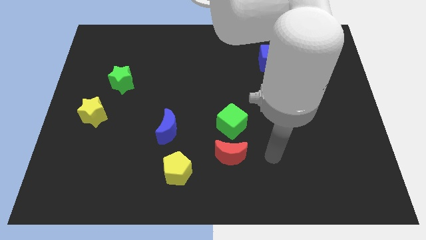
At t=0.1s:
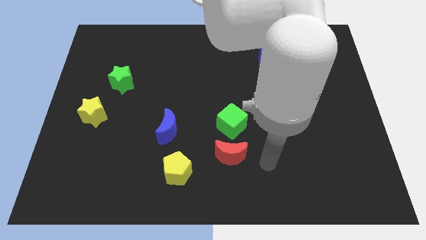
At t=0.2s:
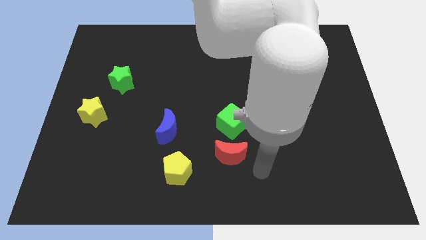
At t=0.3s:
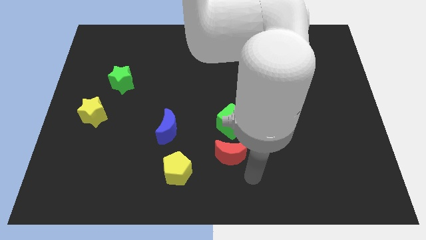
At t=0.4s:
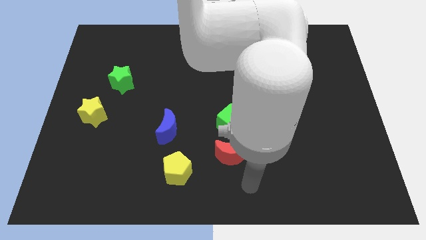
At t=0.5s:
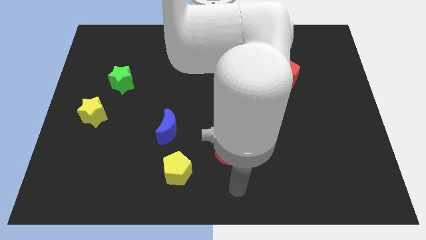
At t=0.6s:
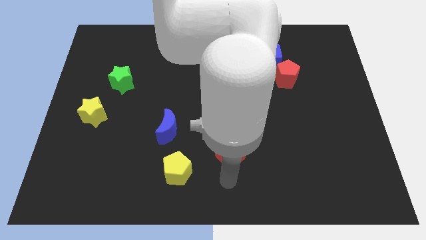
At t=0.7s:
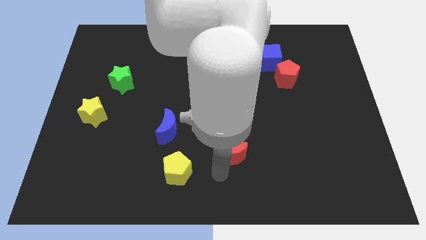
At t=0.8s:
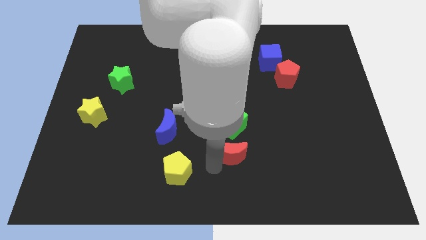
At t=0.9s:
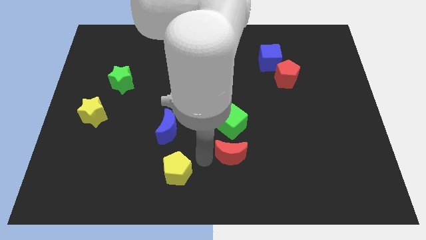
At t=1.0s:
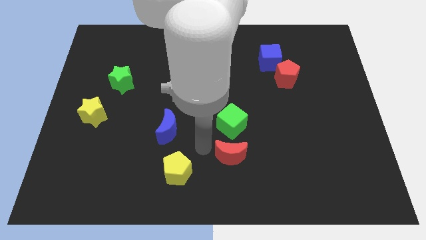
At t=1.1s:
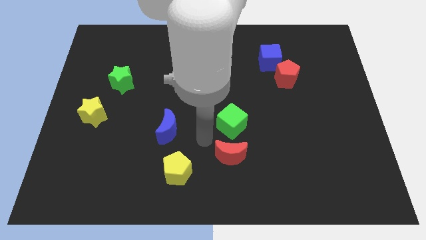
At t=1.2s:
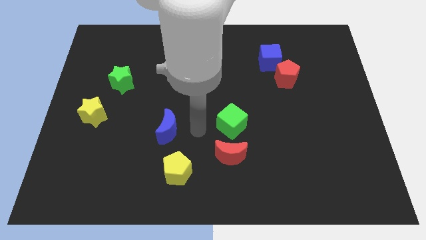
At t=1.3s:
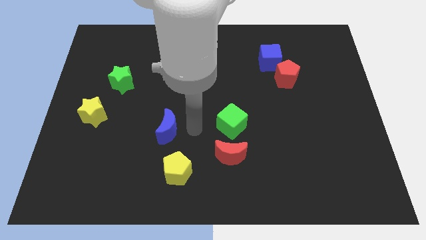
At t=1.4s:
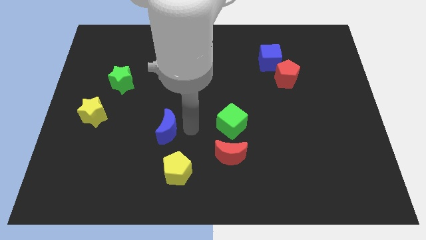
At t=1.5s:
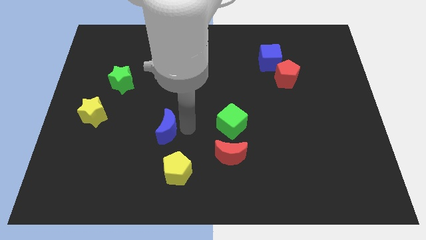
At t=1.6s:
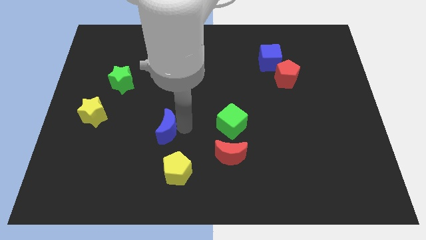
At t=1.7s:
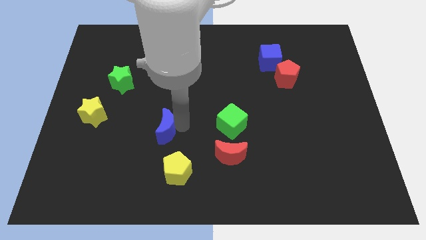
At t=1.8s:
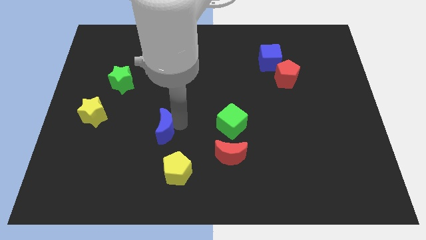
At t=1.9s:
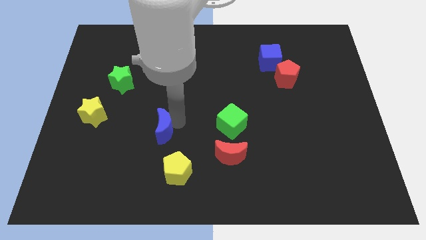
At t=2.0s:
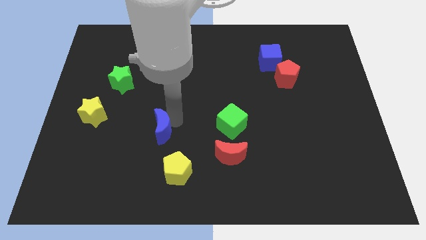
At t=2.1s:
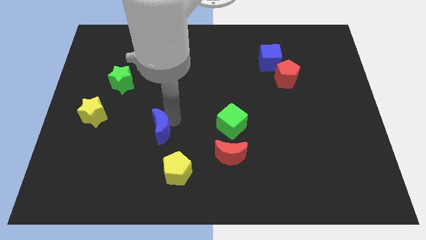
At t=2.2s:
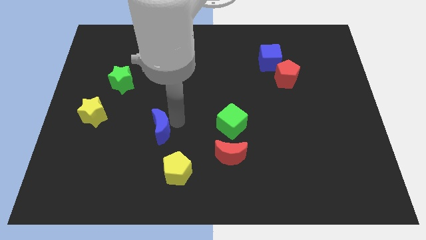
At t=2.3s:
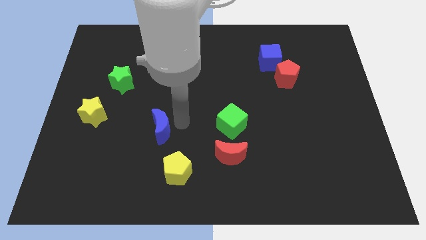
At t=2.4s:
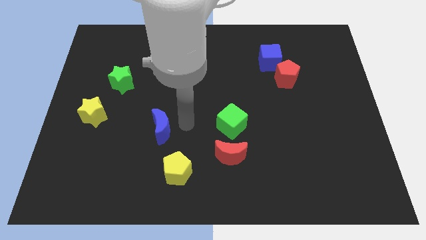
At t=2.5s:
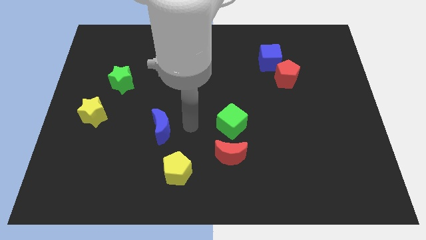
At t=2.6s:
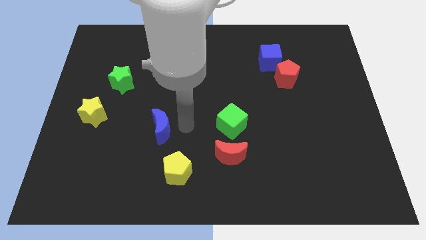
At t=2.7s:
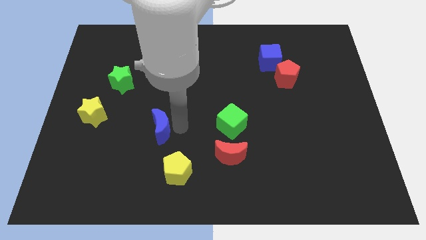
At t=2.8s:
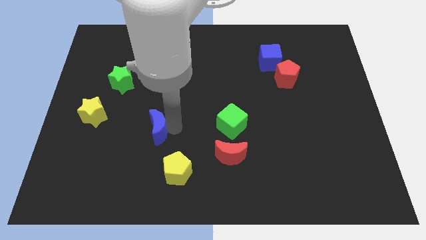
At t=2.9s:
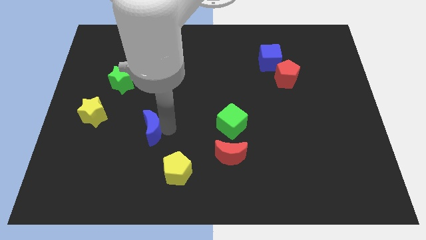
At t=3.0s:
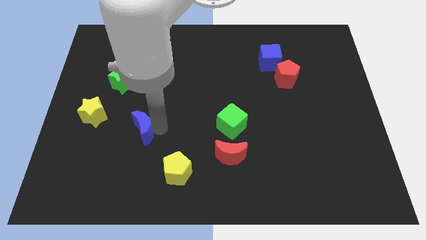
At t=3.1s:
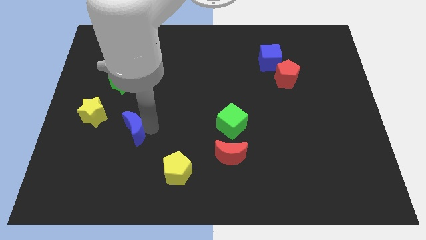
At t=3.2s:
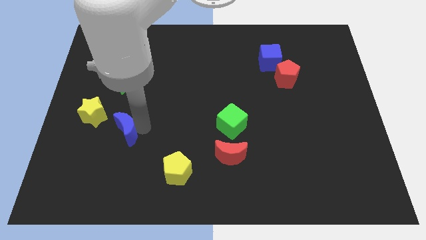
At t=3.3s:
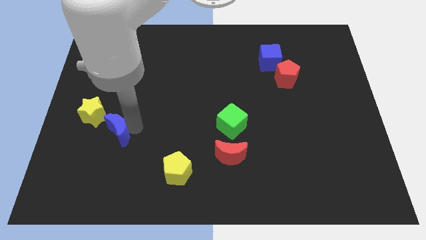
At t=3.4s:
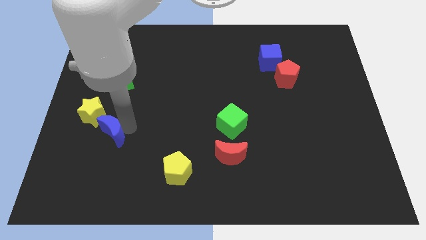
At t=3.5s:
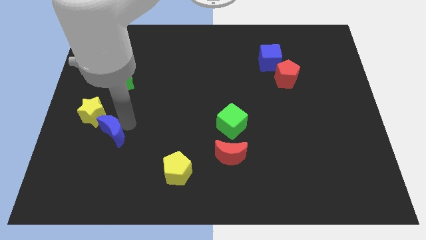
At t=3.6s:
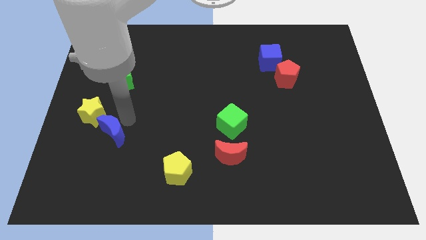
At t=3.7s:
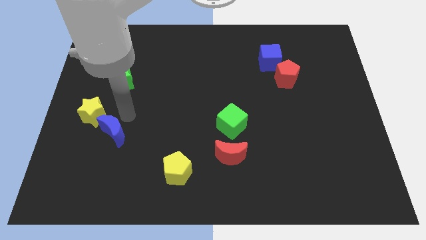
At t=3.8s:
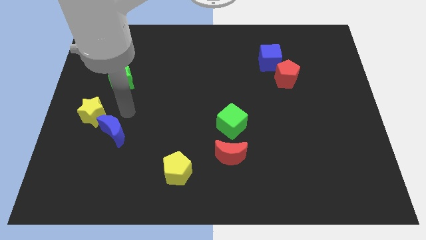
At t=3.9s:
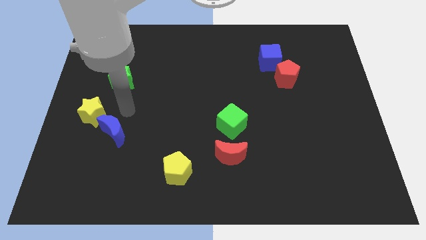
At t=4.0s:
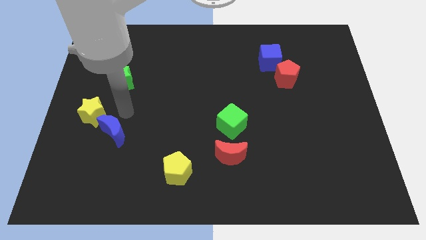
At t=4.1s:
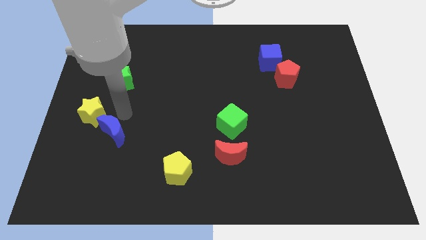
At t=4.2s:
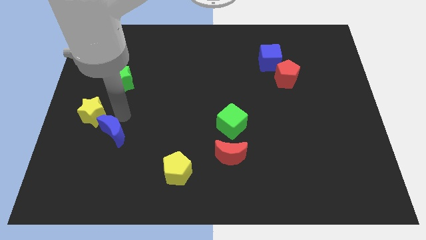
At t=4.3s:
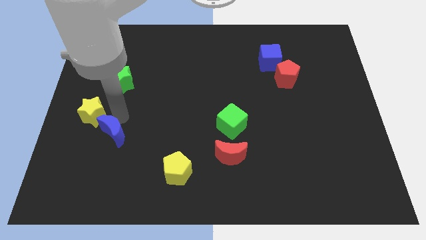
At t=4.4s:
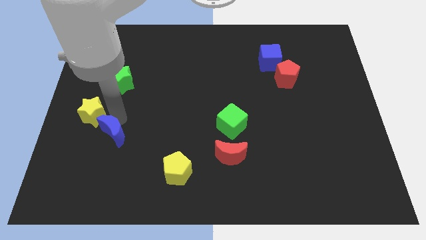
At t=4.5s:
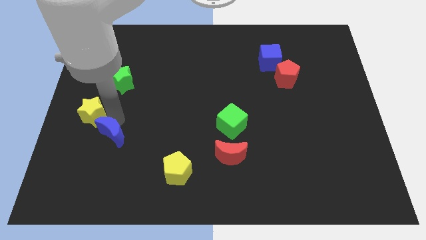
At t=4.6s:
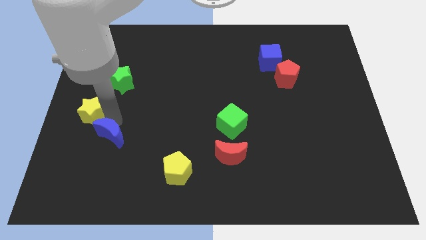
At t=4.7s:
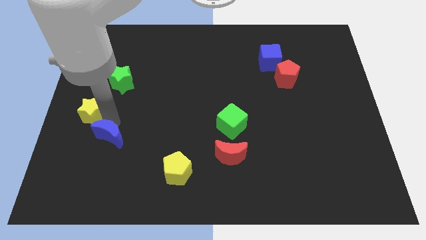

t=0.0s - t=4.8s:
push the blue moon to the bottom side of the yellow star

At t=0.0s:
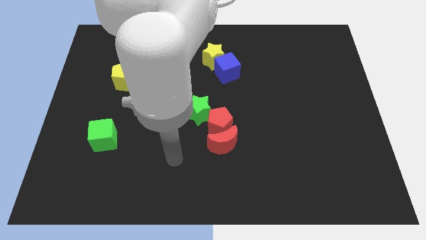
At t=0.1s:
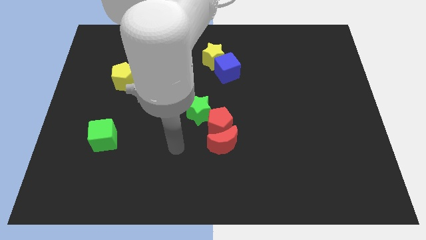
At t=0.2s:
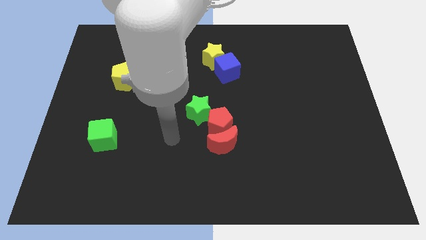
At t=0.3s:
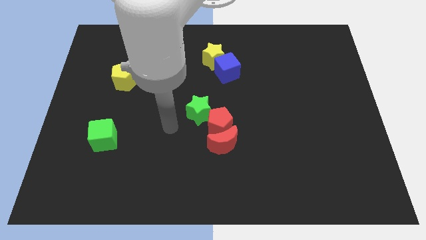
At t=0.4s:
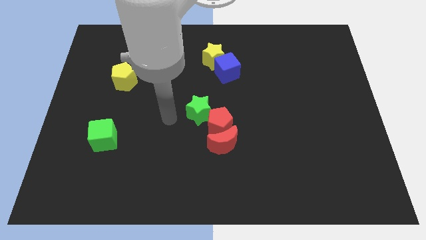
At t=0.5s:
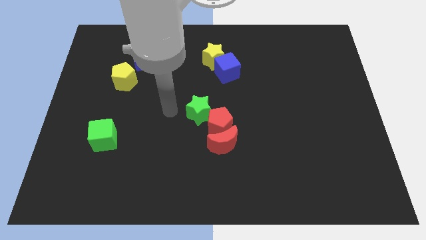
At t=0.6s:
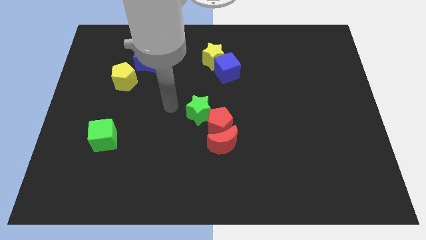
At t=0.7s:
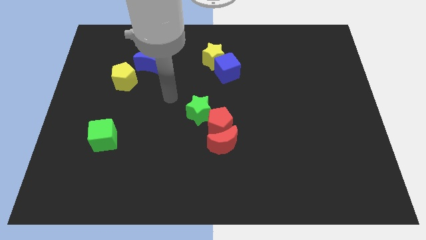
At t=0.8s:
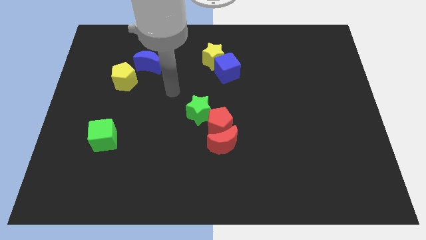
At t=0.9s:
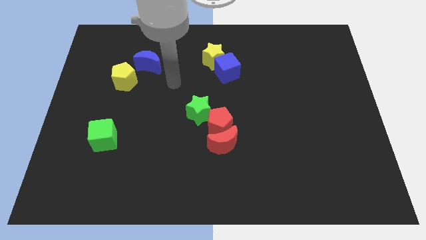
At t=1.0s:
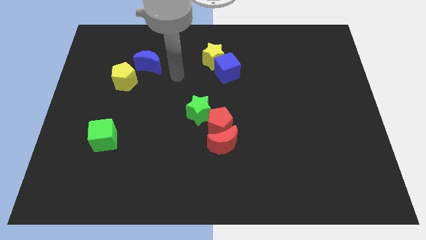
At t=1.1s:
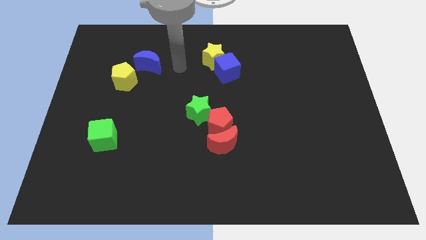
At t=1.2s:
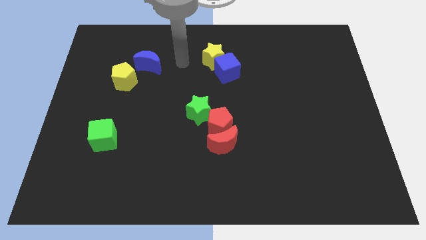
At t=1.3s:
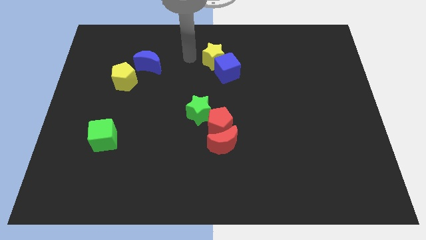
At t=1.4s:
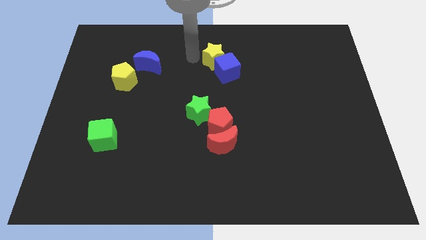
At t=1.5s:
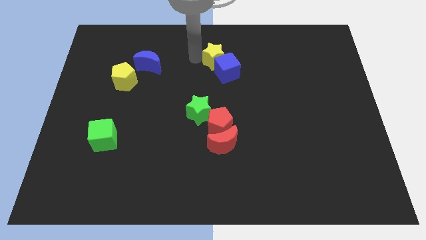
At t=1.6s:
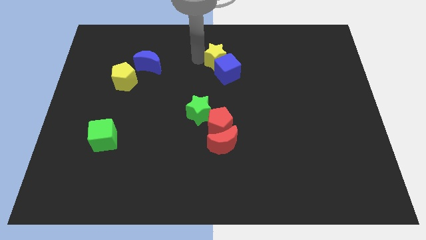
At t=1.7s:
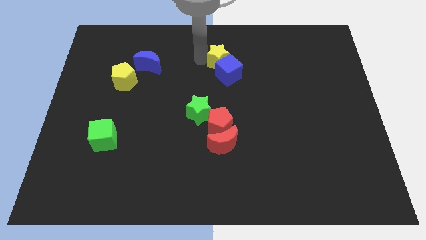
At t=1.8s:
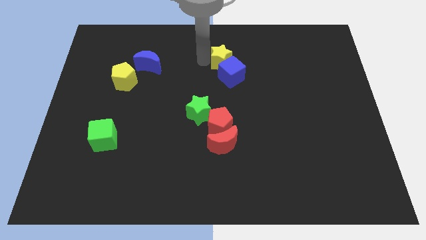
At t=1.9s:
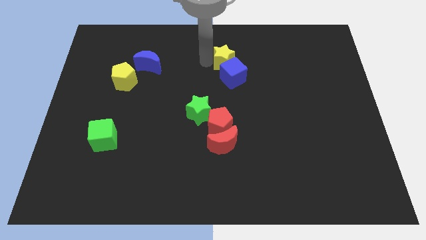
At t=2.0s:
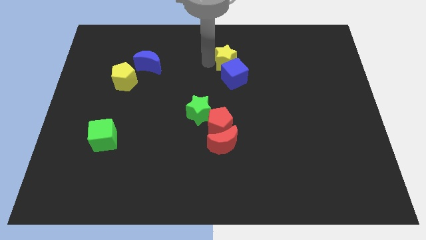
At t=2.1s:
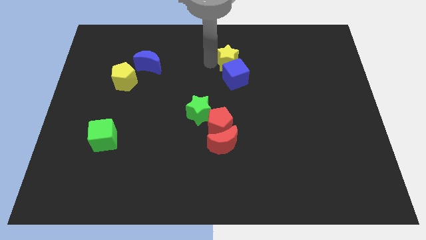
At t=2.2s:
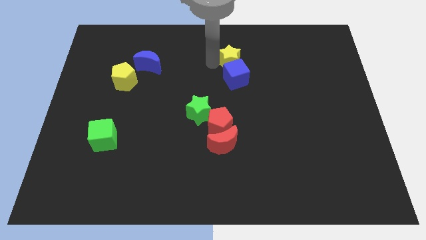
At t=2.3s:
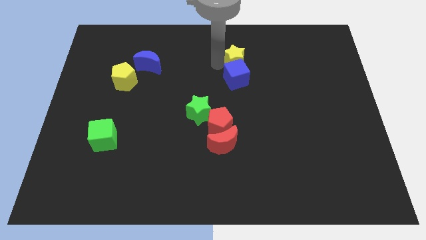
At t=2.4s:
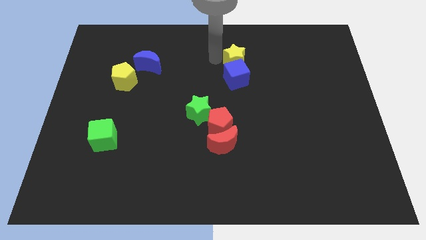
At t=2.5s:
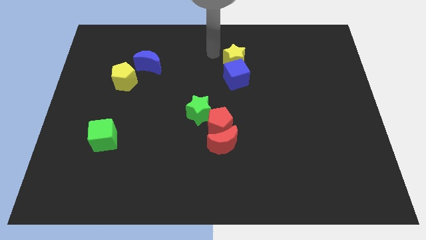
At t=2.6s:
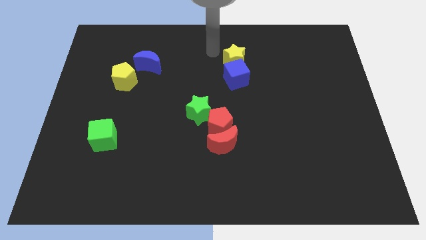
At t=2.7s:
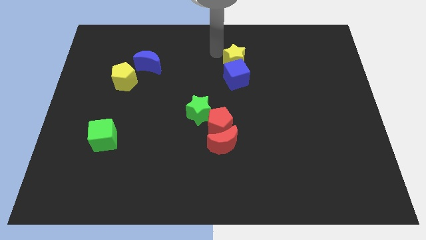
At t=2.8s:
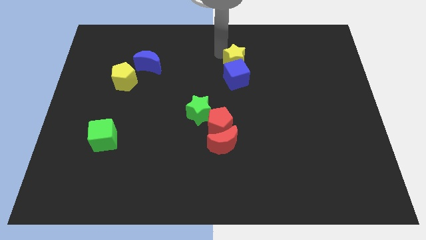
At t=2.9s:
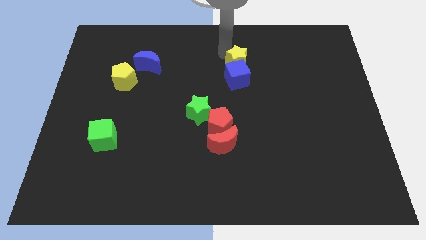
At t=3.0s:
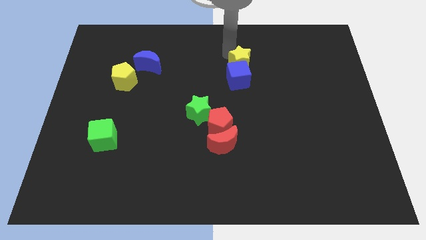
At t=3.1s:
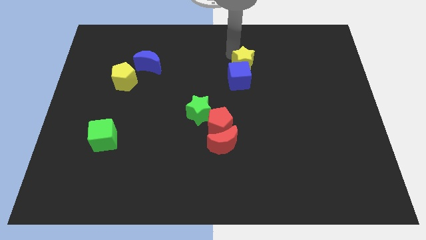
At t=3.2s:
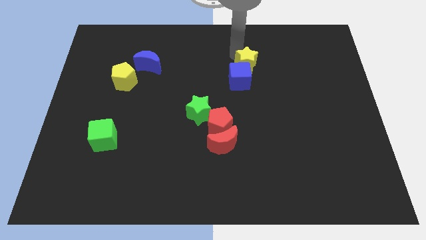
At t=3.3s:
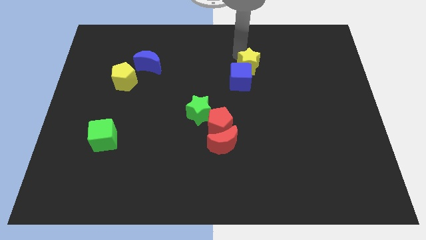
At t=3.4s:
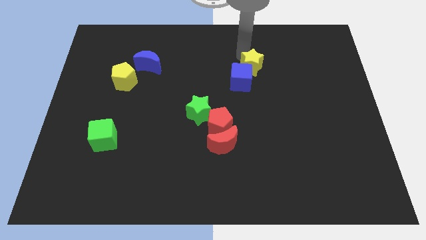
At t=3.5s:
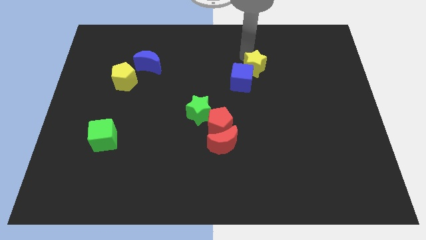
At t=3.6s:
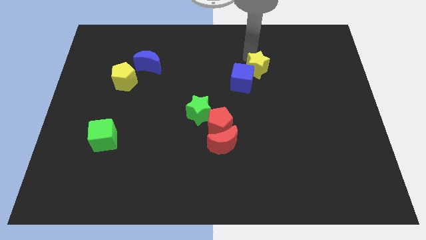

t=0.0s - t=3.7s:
push the yellow star to the right side of the blue cube
